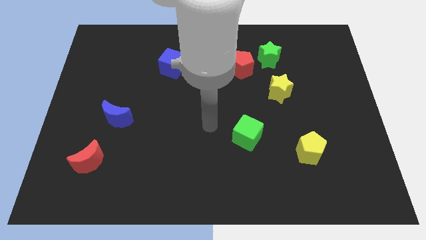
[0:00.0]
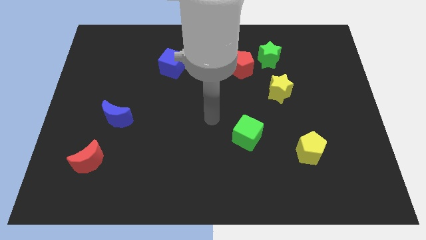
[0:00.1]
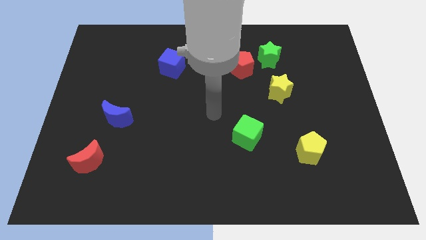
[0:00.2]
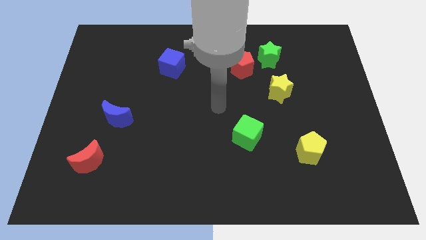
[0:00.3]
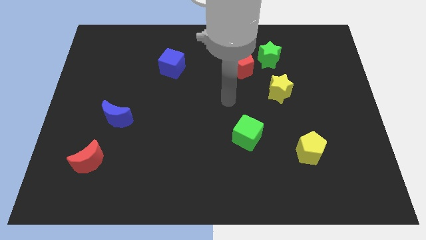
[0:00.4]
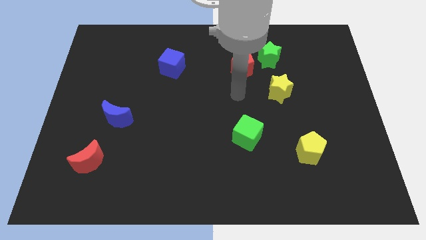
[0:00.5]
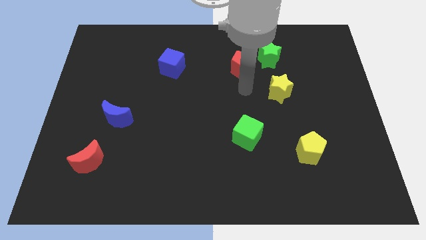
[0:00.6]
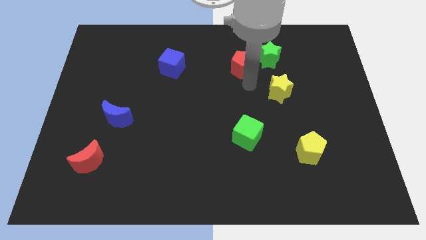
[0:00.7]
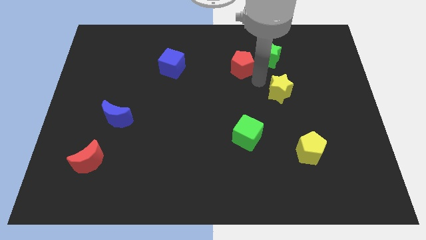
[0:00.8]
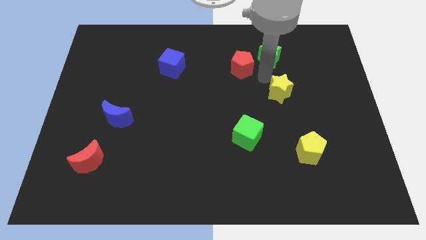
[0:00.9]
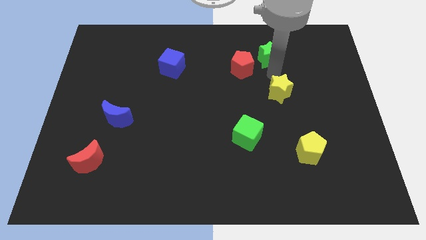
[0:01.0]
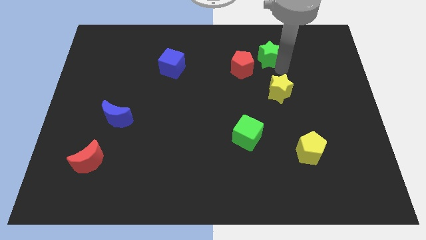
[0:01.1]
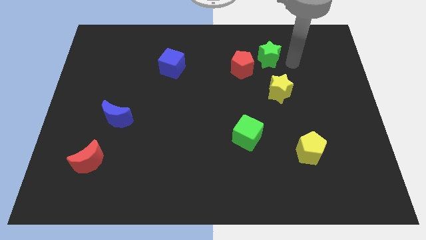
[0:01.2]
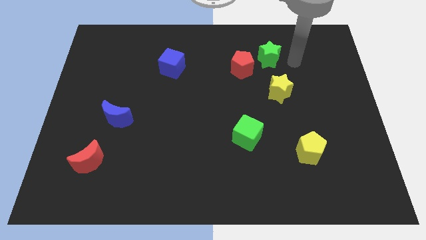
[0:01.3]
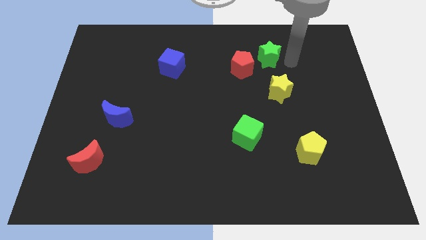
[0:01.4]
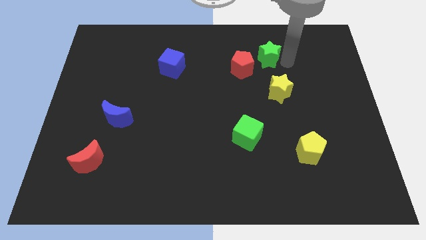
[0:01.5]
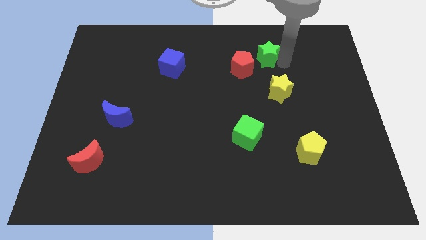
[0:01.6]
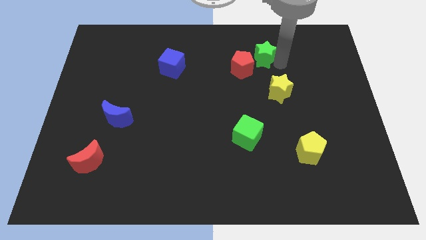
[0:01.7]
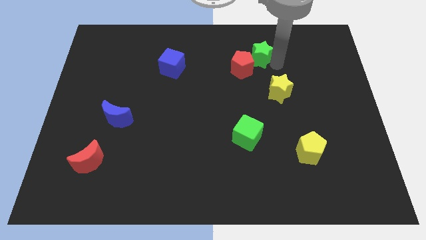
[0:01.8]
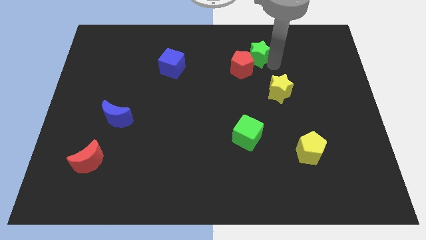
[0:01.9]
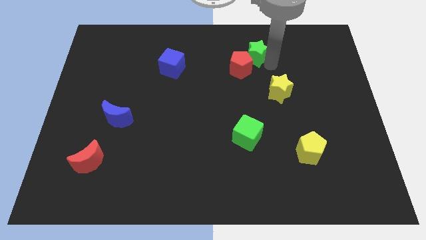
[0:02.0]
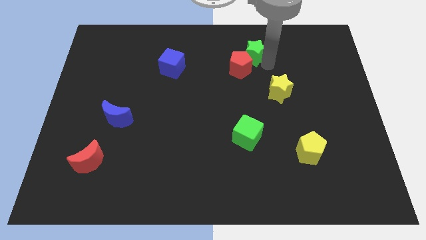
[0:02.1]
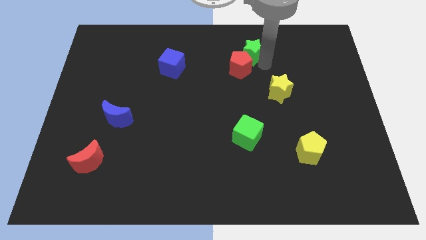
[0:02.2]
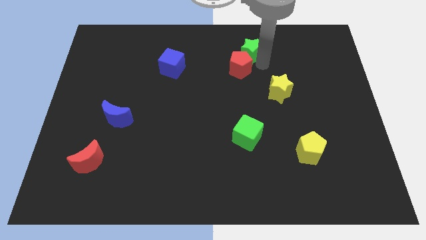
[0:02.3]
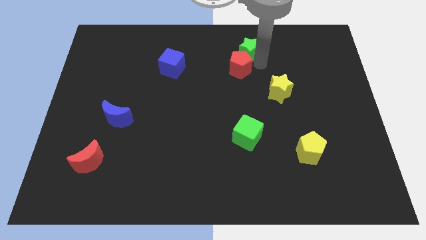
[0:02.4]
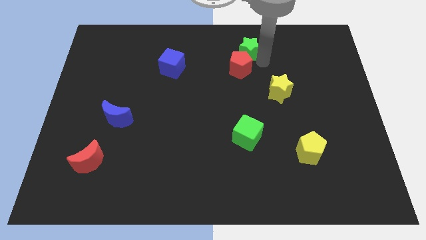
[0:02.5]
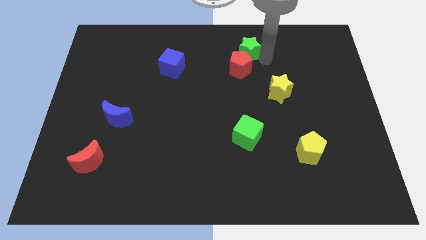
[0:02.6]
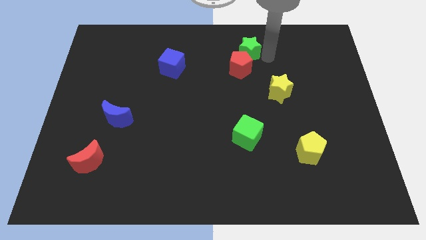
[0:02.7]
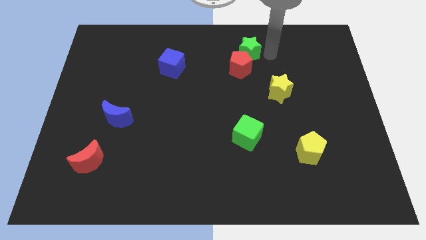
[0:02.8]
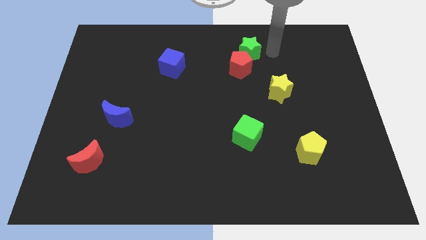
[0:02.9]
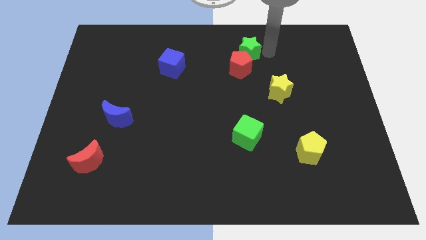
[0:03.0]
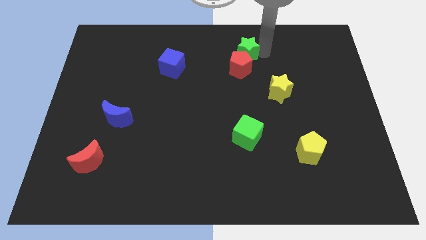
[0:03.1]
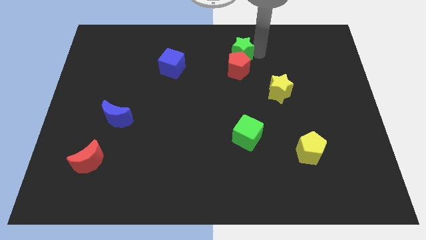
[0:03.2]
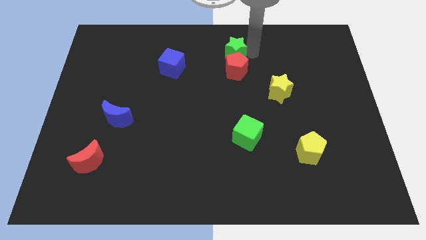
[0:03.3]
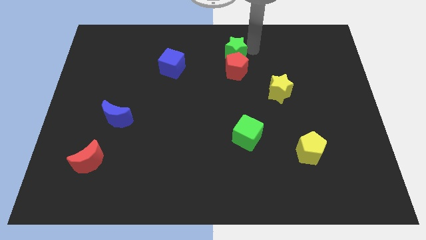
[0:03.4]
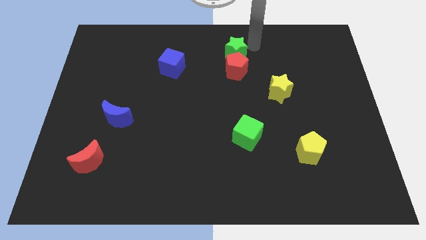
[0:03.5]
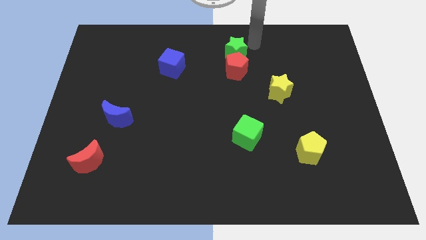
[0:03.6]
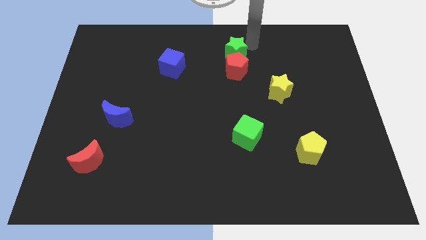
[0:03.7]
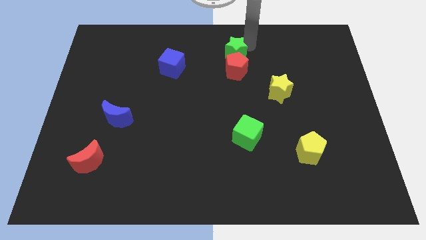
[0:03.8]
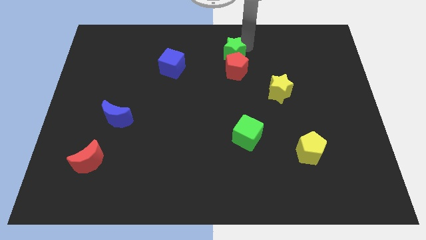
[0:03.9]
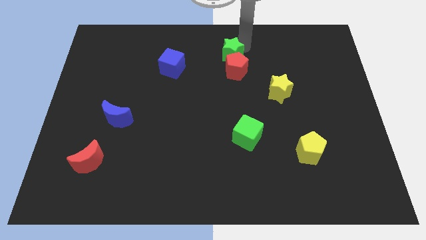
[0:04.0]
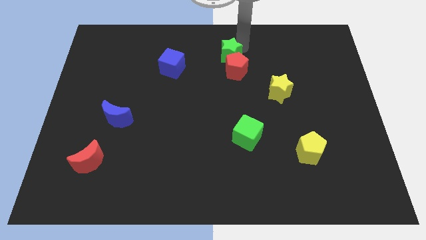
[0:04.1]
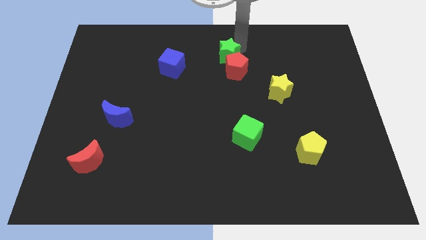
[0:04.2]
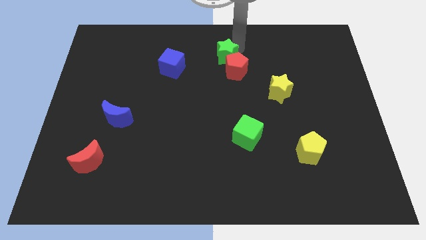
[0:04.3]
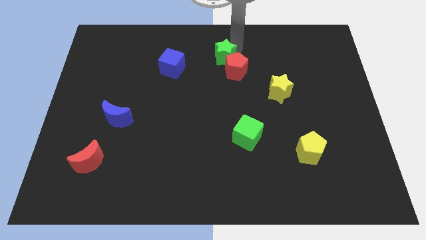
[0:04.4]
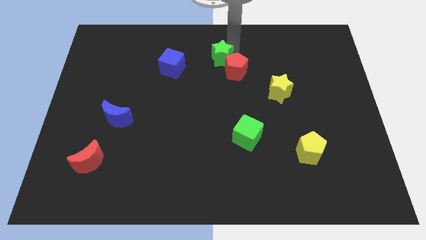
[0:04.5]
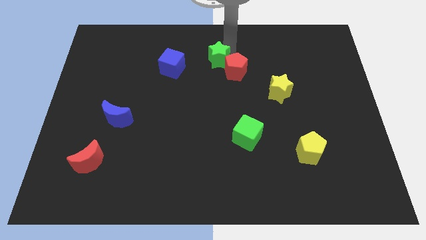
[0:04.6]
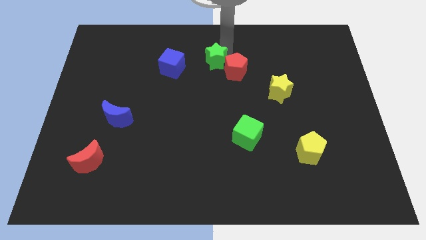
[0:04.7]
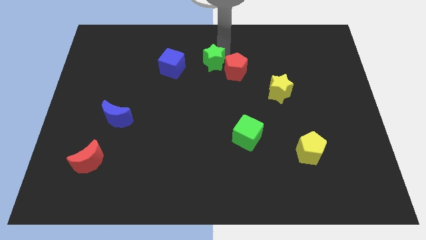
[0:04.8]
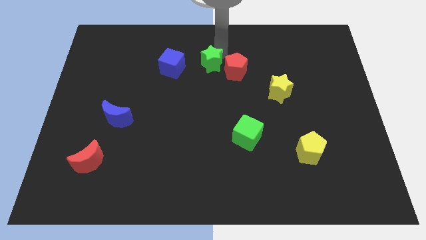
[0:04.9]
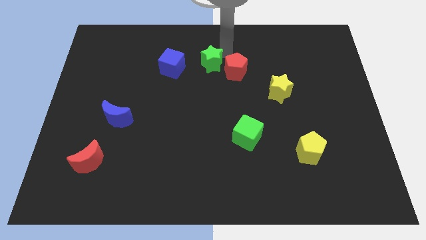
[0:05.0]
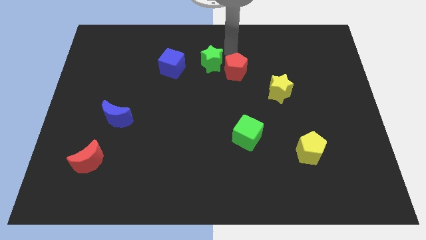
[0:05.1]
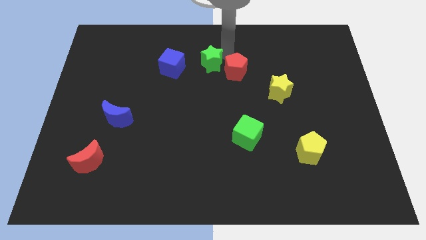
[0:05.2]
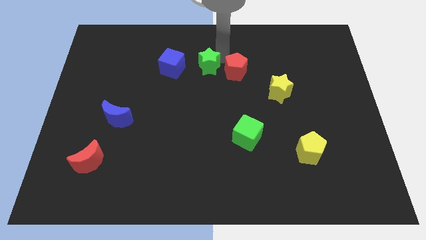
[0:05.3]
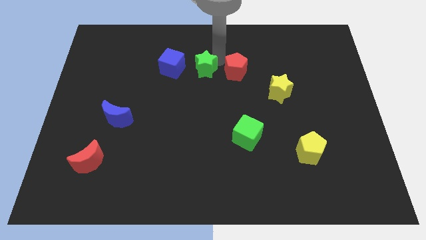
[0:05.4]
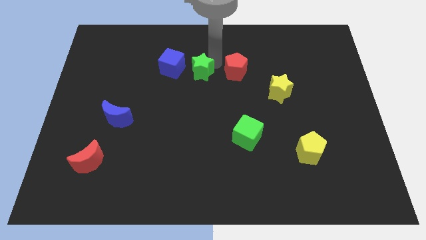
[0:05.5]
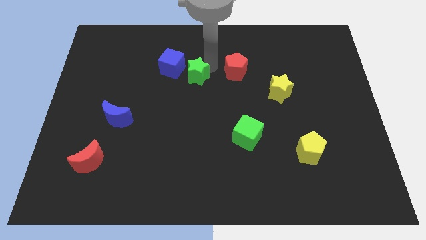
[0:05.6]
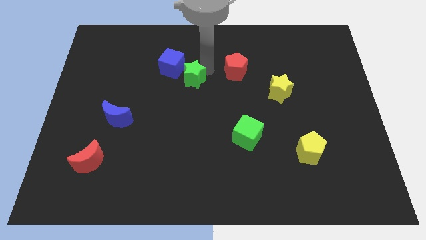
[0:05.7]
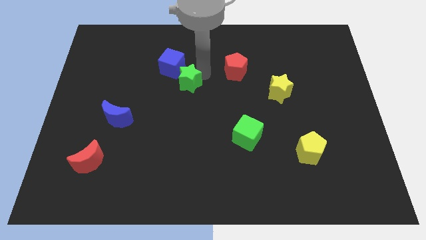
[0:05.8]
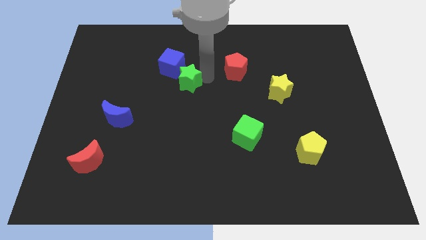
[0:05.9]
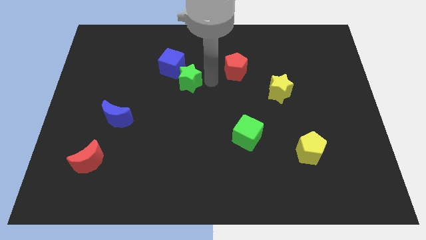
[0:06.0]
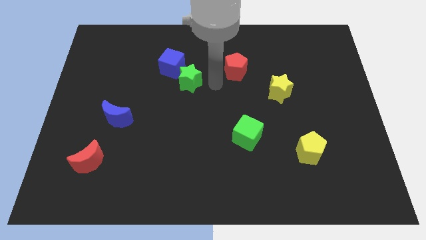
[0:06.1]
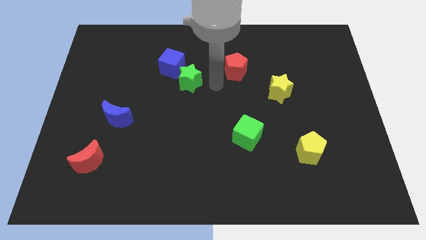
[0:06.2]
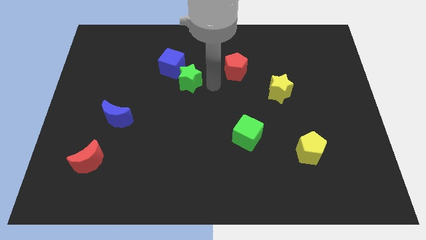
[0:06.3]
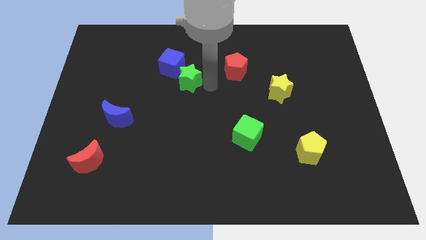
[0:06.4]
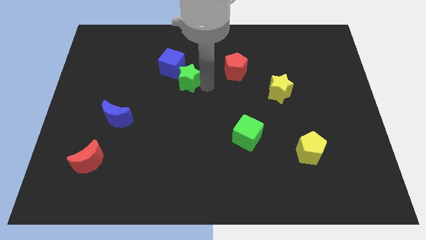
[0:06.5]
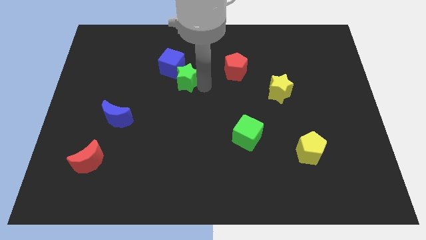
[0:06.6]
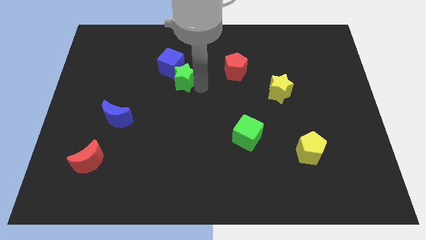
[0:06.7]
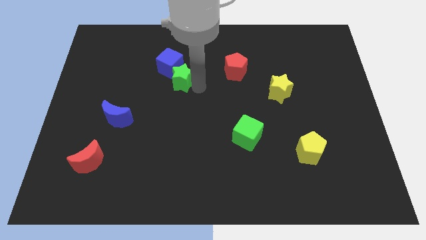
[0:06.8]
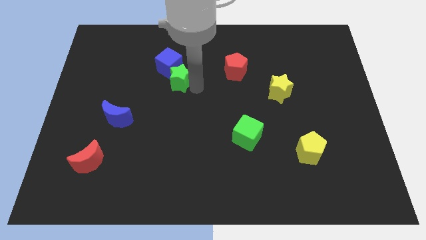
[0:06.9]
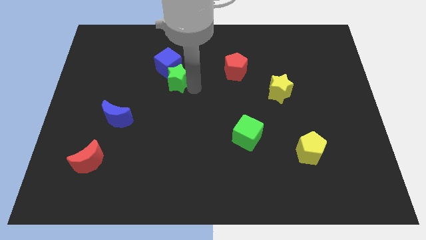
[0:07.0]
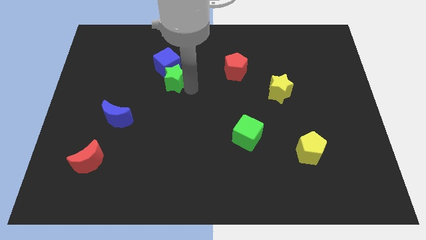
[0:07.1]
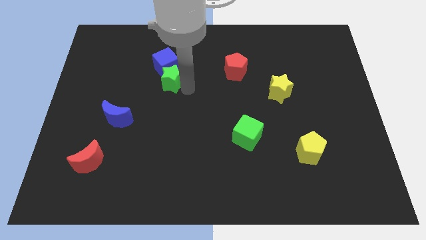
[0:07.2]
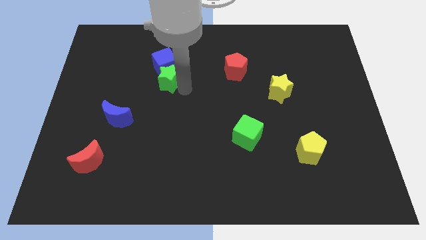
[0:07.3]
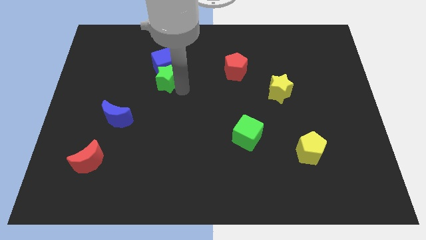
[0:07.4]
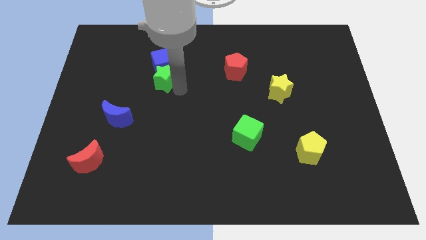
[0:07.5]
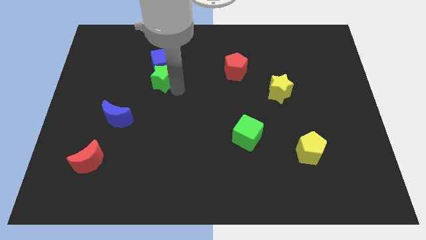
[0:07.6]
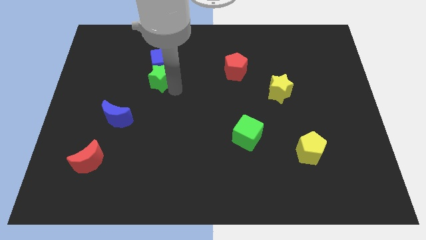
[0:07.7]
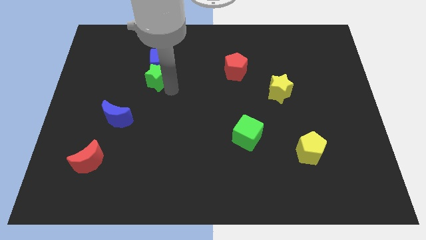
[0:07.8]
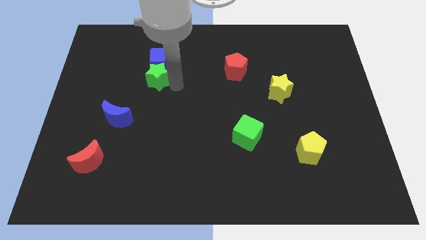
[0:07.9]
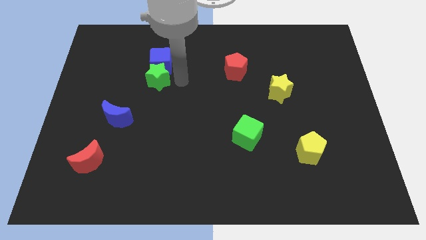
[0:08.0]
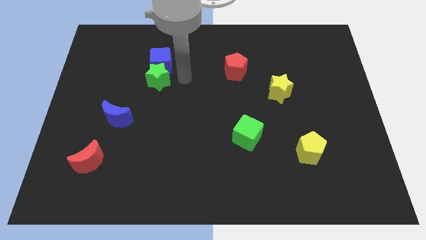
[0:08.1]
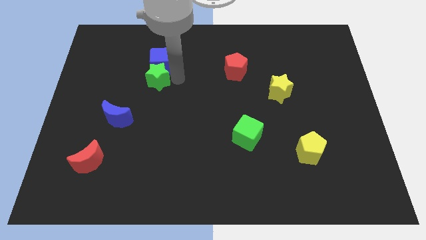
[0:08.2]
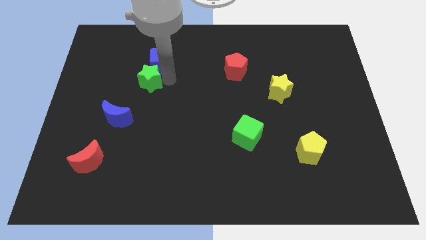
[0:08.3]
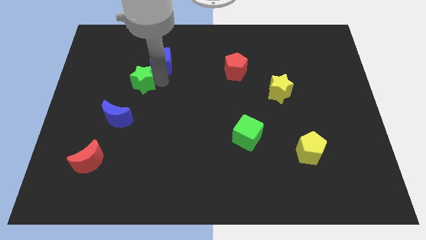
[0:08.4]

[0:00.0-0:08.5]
push the green star to the top of the blue moon
